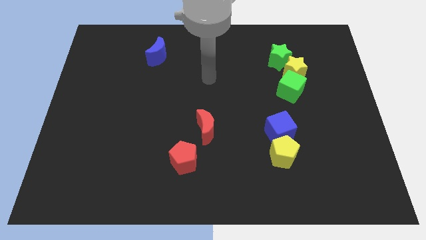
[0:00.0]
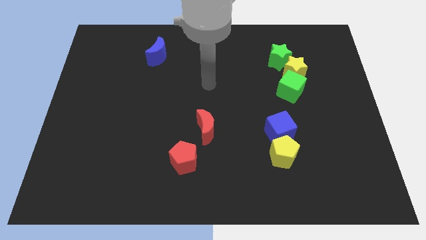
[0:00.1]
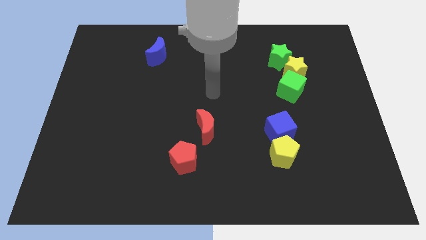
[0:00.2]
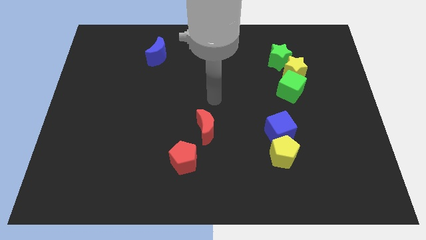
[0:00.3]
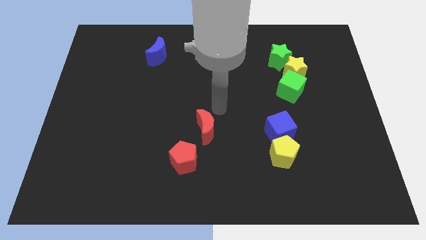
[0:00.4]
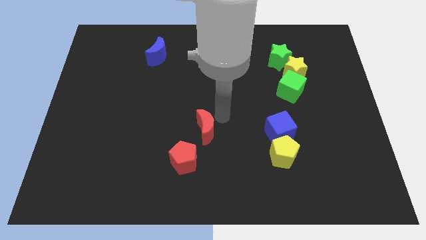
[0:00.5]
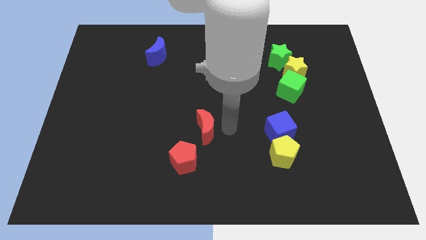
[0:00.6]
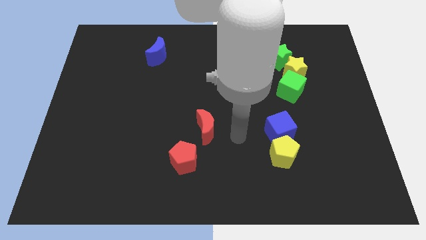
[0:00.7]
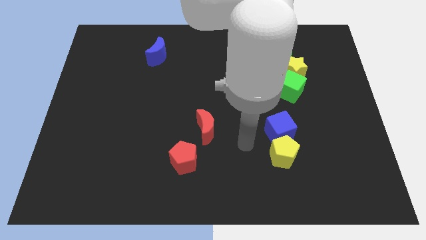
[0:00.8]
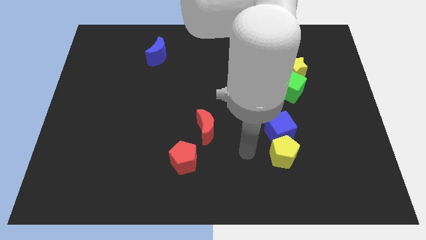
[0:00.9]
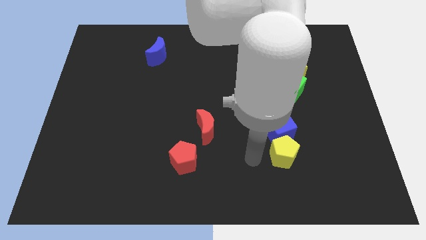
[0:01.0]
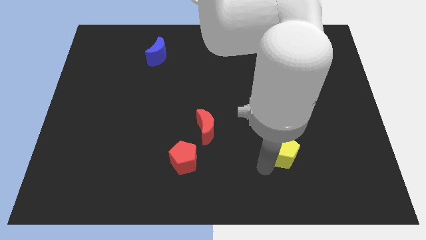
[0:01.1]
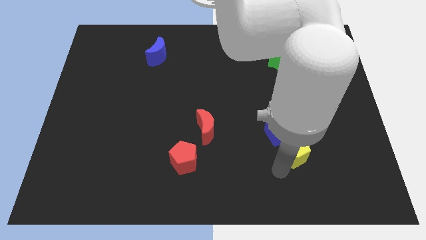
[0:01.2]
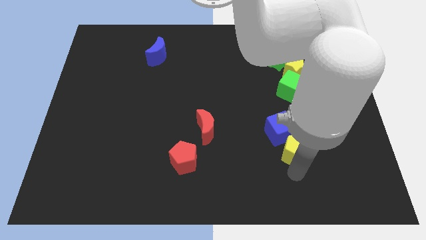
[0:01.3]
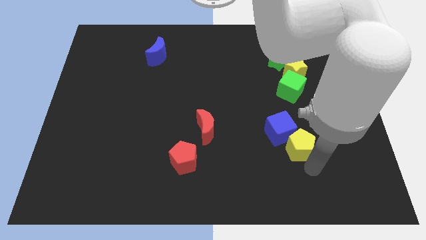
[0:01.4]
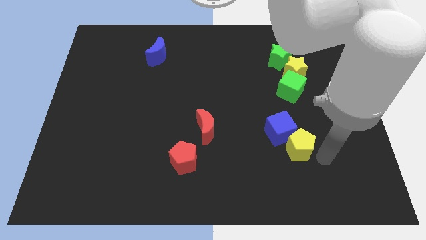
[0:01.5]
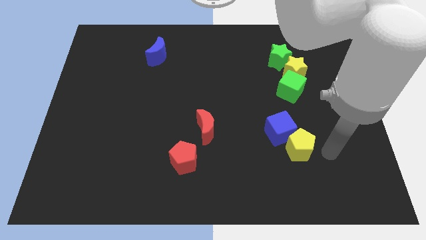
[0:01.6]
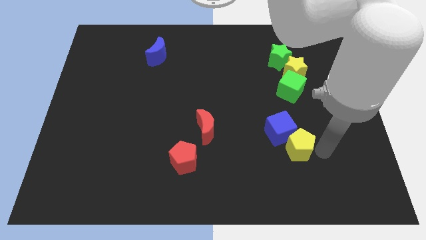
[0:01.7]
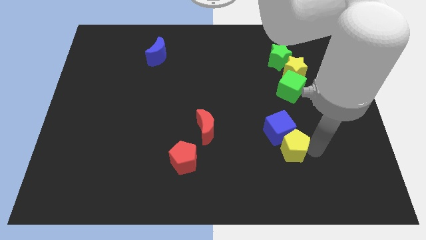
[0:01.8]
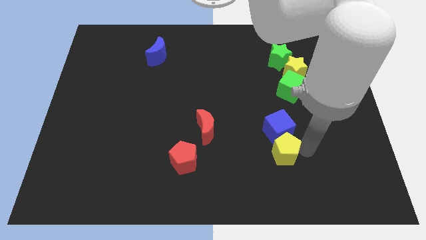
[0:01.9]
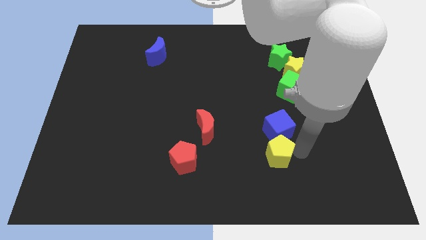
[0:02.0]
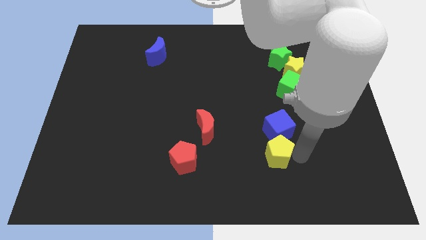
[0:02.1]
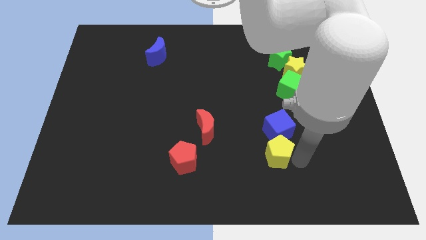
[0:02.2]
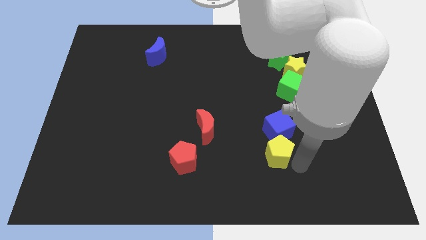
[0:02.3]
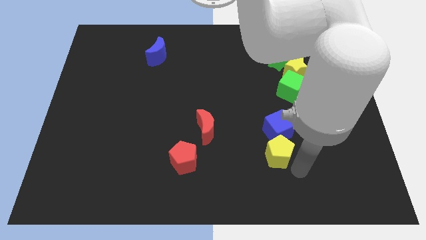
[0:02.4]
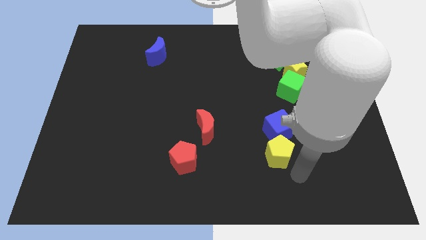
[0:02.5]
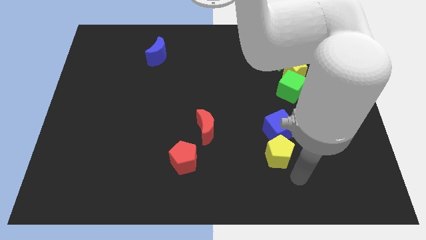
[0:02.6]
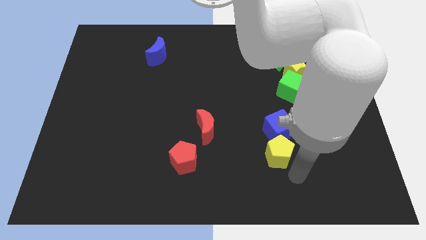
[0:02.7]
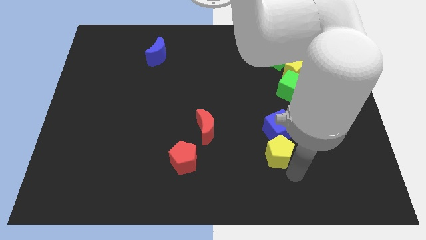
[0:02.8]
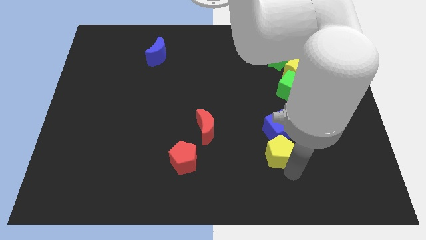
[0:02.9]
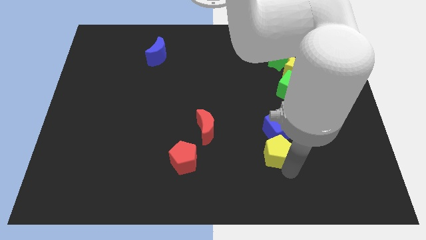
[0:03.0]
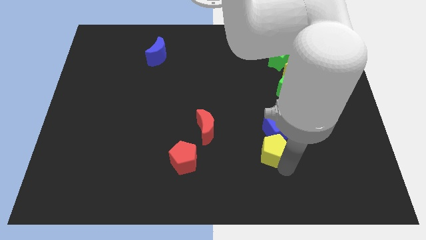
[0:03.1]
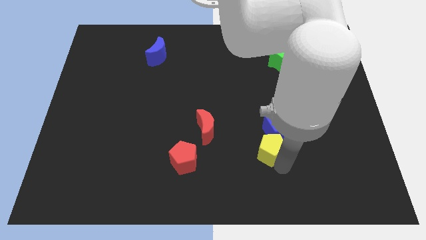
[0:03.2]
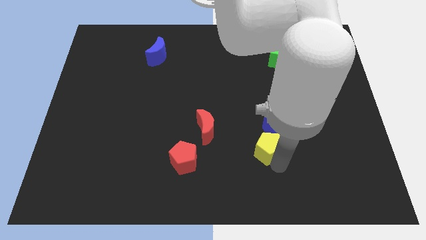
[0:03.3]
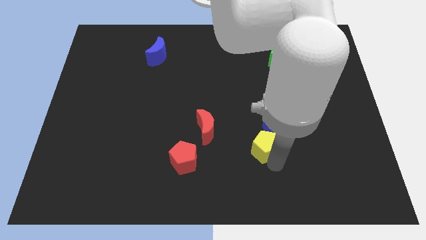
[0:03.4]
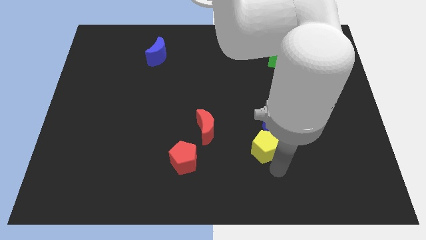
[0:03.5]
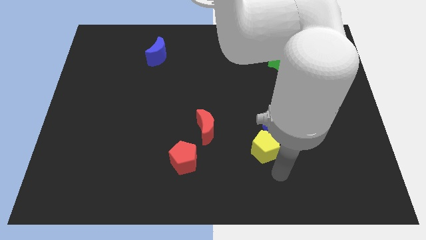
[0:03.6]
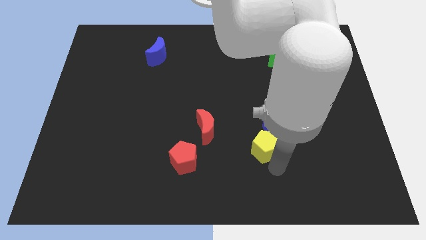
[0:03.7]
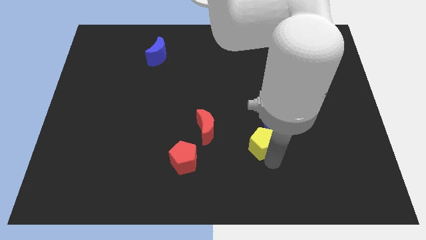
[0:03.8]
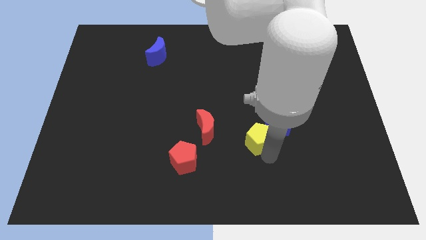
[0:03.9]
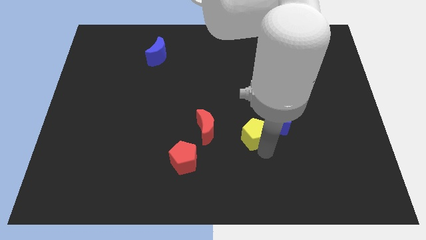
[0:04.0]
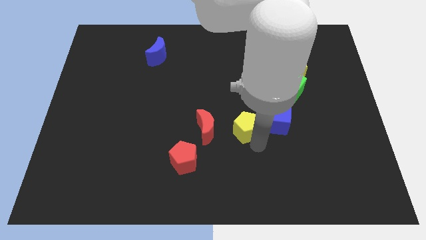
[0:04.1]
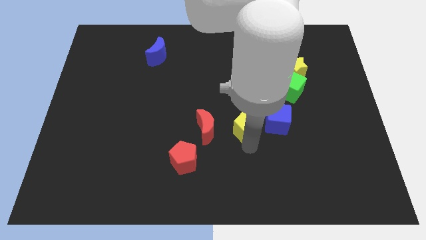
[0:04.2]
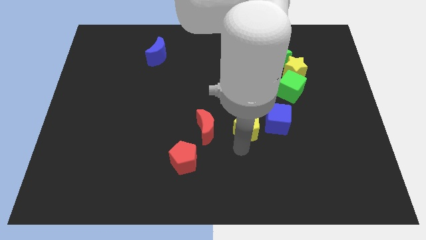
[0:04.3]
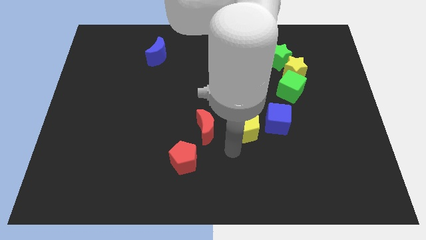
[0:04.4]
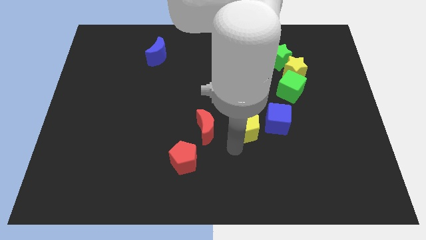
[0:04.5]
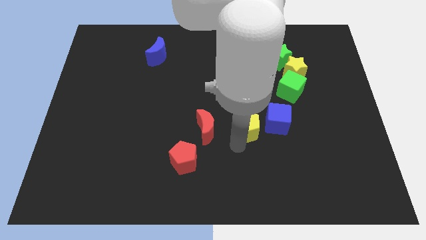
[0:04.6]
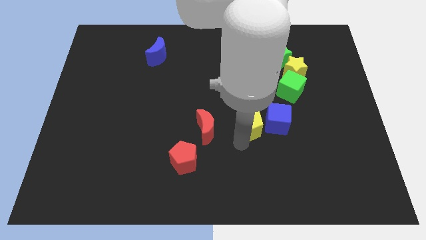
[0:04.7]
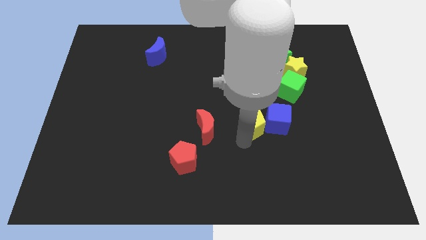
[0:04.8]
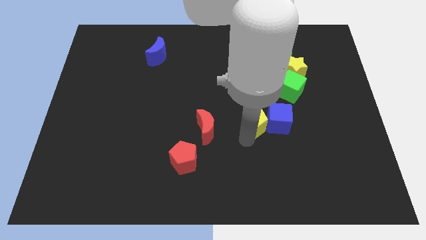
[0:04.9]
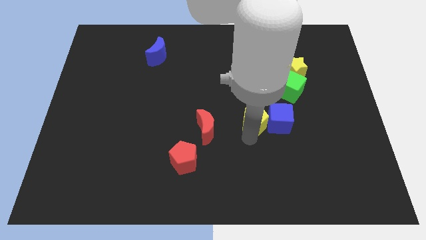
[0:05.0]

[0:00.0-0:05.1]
move the yellow pentagon a little up

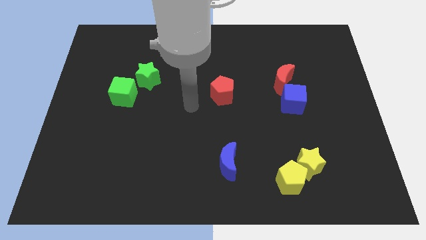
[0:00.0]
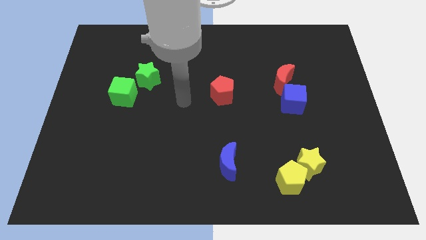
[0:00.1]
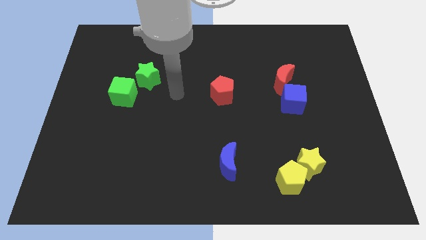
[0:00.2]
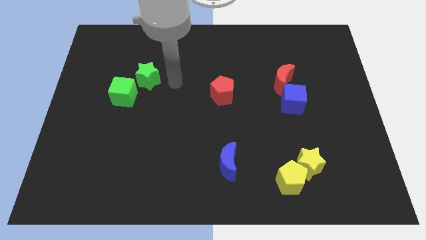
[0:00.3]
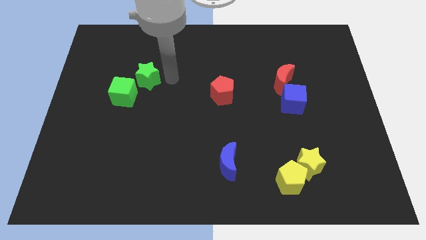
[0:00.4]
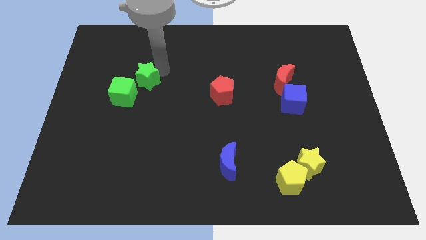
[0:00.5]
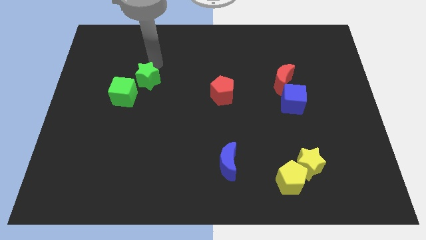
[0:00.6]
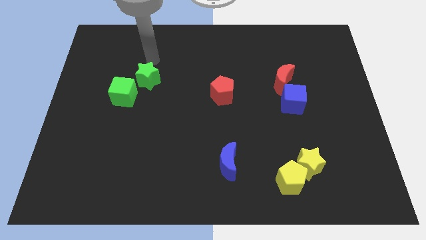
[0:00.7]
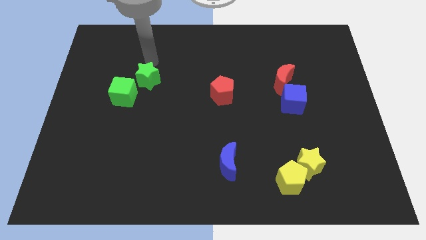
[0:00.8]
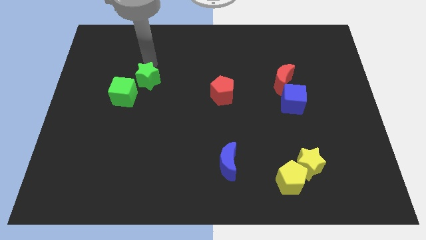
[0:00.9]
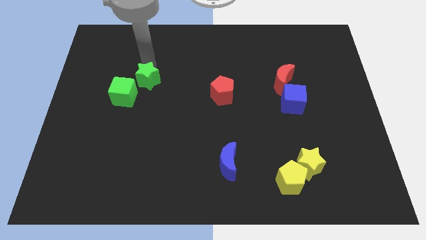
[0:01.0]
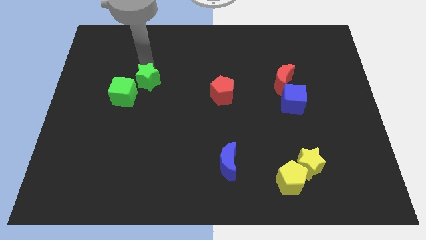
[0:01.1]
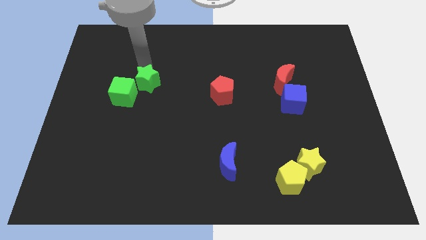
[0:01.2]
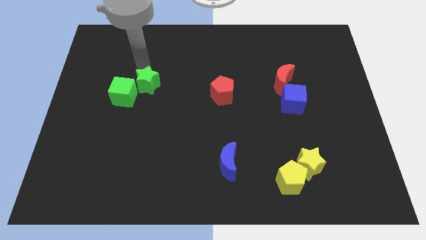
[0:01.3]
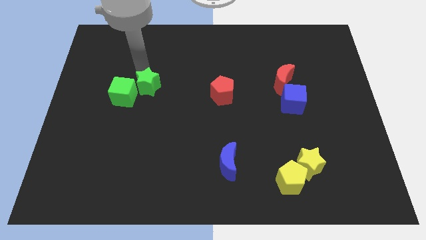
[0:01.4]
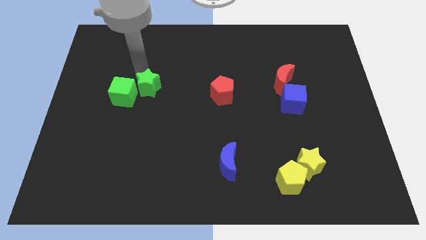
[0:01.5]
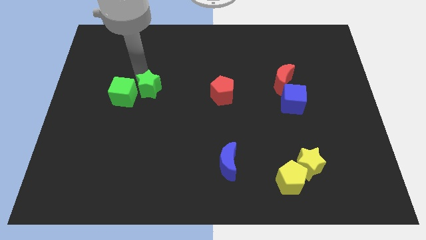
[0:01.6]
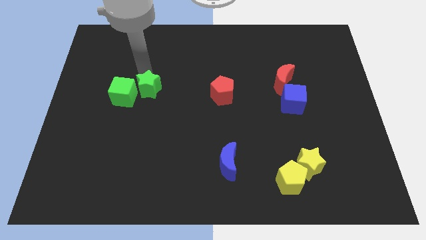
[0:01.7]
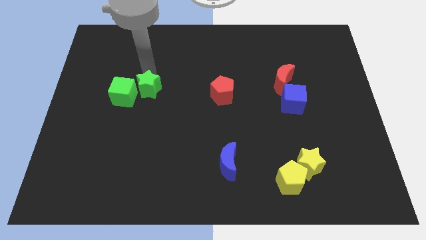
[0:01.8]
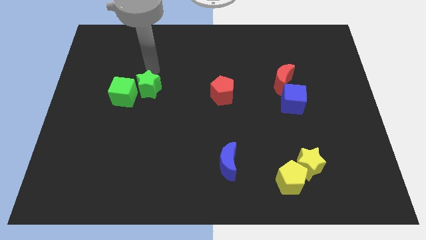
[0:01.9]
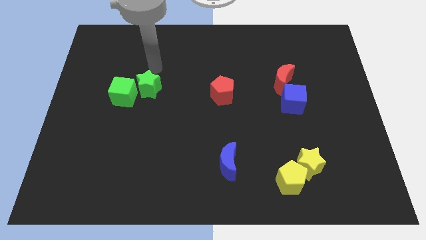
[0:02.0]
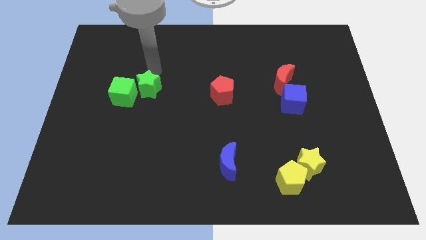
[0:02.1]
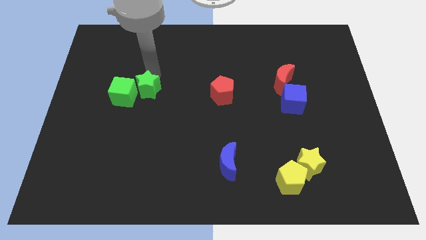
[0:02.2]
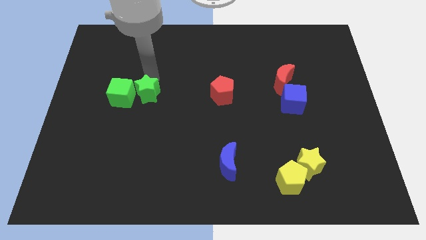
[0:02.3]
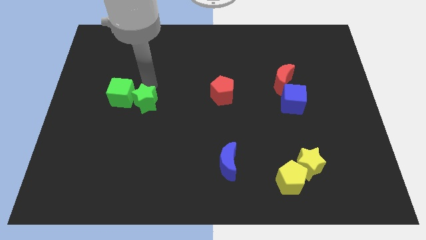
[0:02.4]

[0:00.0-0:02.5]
slide the green star somewhat downwards

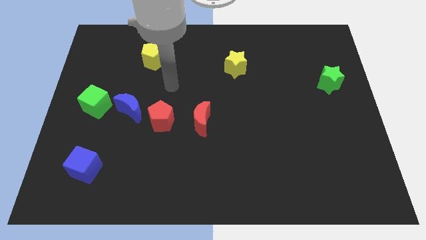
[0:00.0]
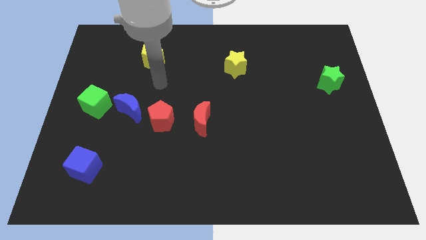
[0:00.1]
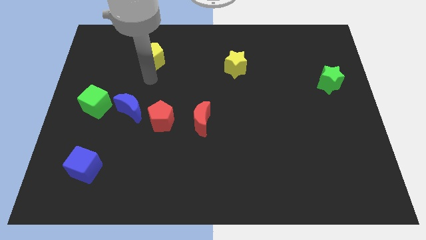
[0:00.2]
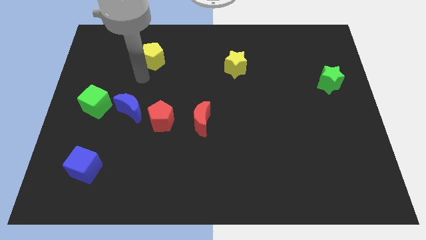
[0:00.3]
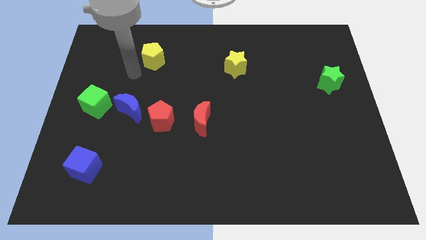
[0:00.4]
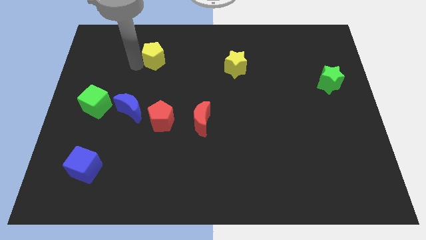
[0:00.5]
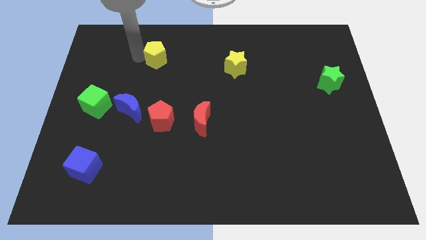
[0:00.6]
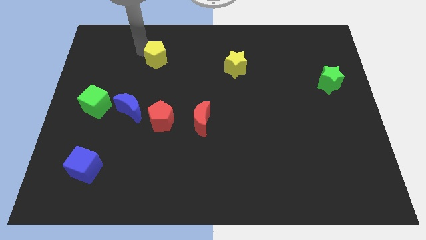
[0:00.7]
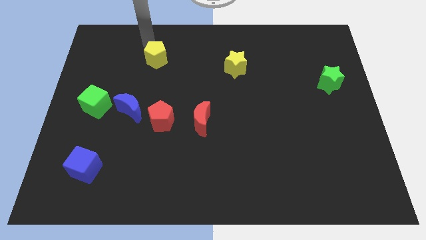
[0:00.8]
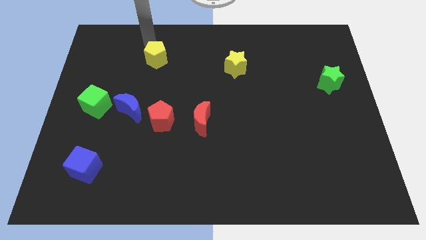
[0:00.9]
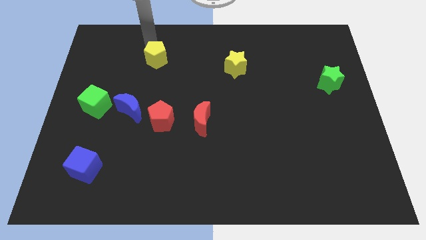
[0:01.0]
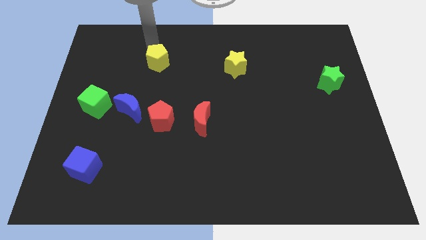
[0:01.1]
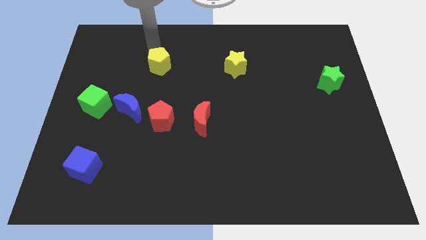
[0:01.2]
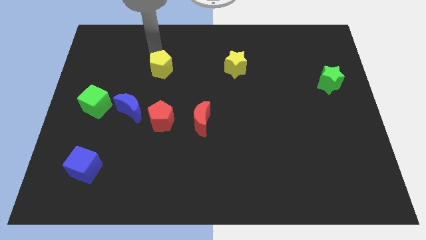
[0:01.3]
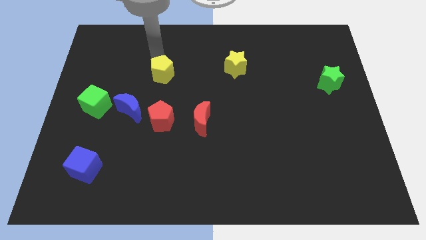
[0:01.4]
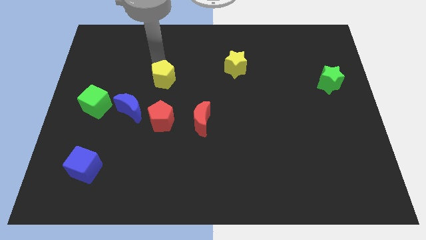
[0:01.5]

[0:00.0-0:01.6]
slightly slide the yellow pentagon downwards and right
